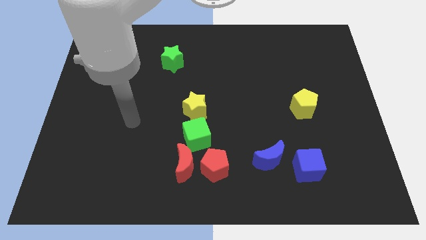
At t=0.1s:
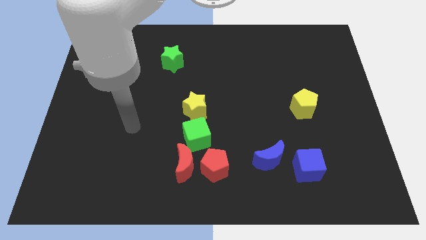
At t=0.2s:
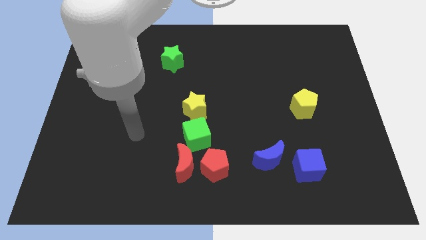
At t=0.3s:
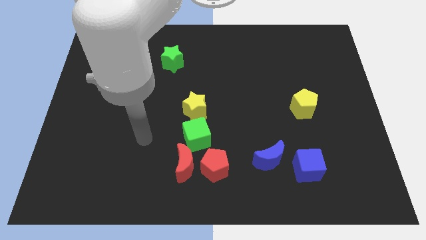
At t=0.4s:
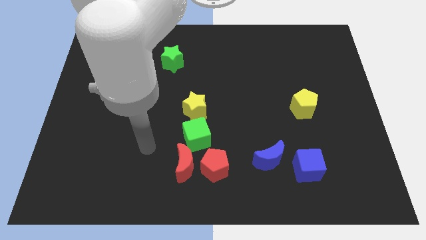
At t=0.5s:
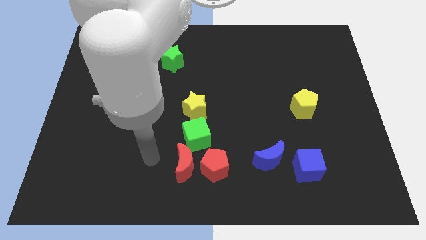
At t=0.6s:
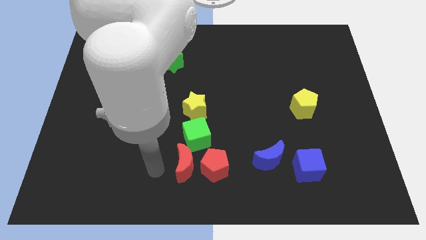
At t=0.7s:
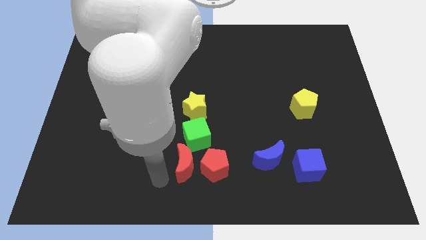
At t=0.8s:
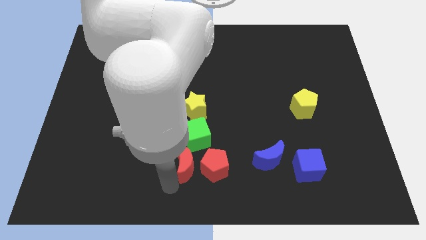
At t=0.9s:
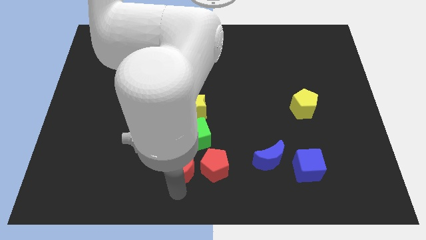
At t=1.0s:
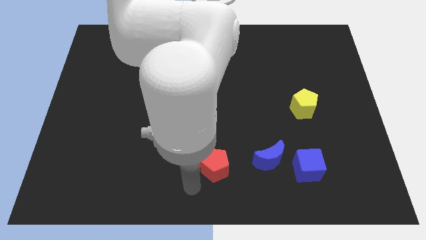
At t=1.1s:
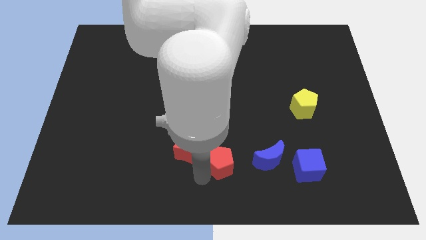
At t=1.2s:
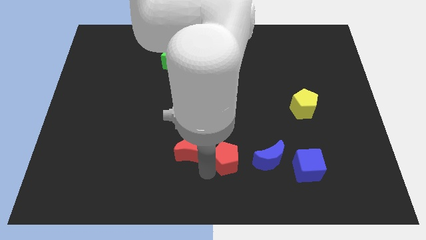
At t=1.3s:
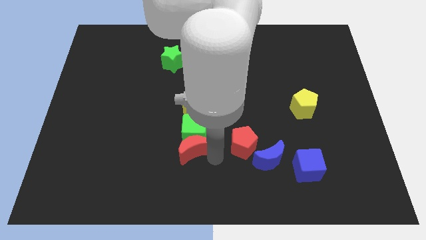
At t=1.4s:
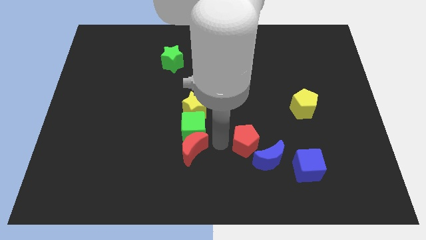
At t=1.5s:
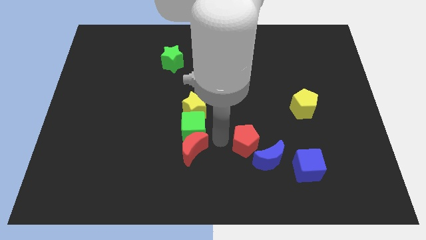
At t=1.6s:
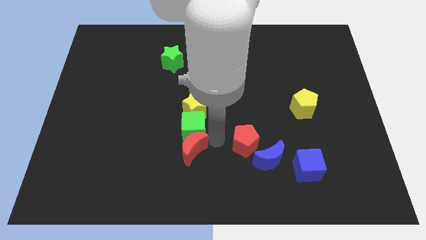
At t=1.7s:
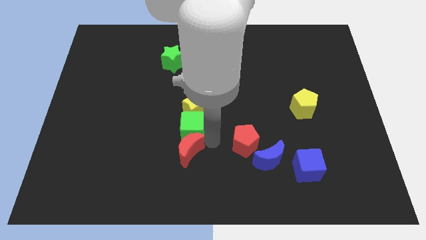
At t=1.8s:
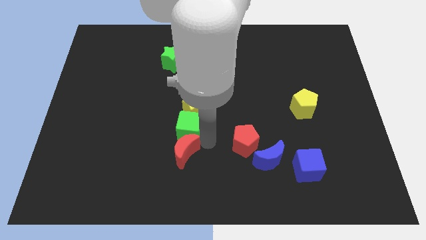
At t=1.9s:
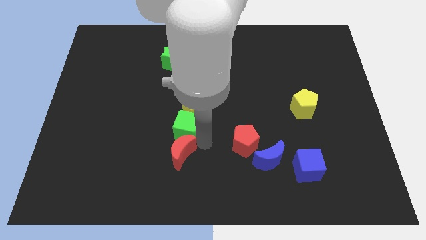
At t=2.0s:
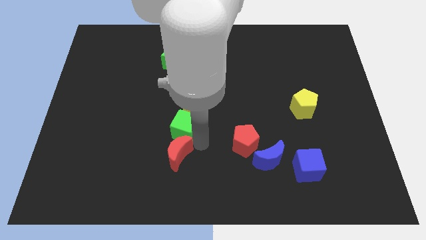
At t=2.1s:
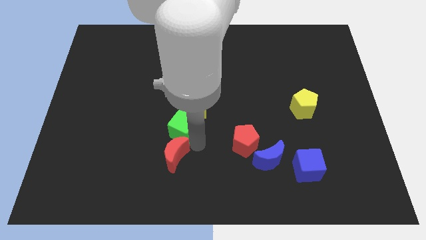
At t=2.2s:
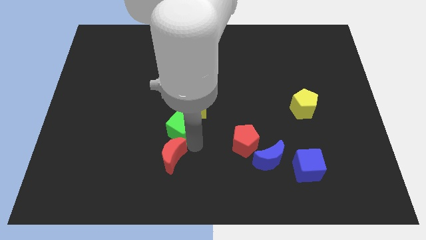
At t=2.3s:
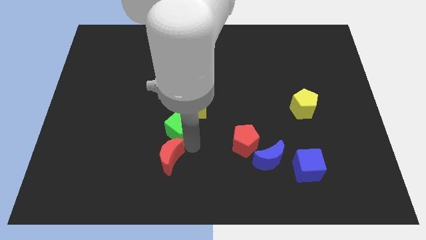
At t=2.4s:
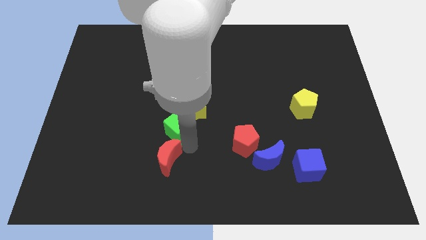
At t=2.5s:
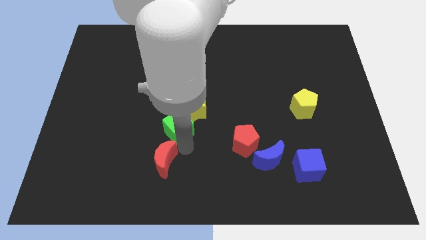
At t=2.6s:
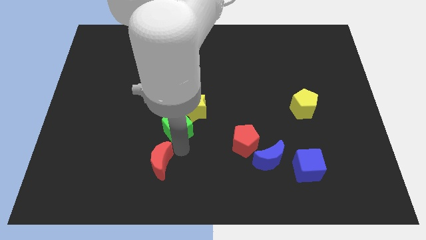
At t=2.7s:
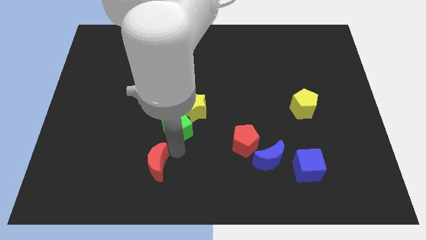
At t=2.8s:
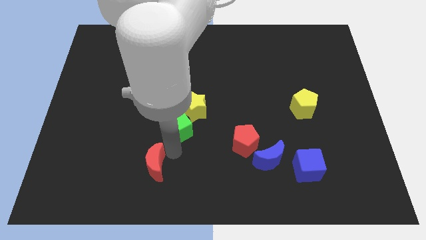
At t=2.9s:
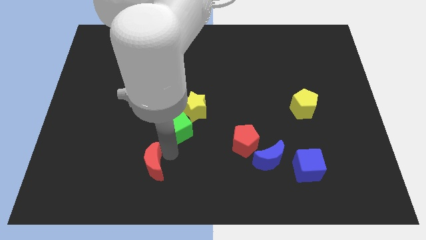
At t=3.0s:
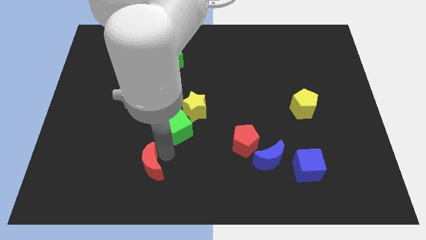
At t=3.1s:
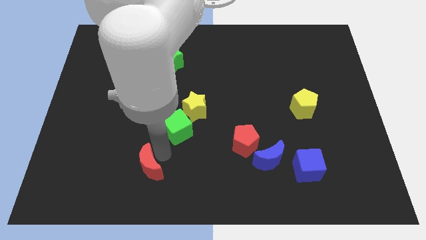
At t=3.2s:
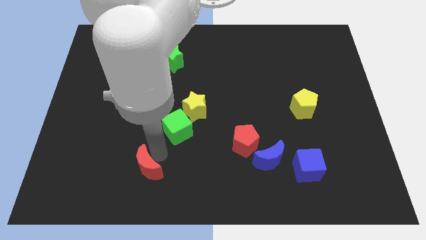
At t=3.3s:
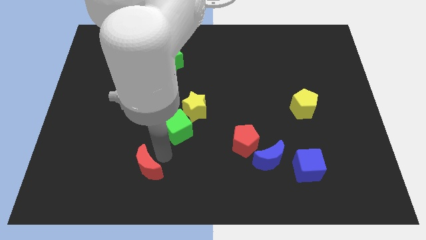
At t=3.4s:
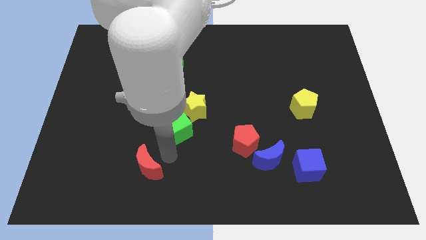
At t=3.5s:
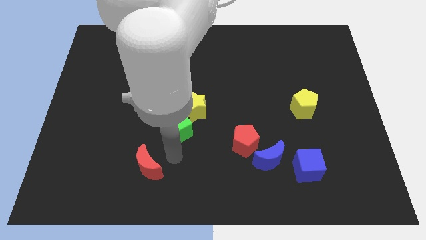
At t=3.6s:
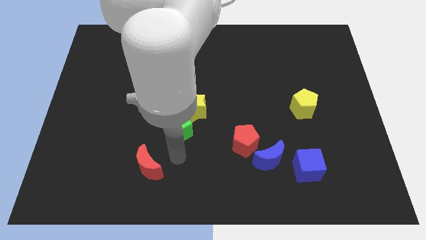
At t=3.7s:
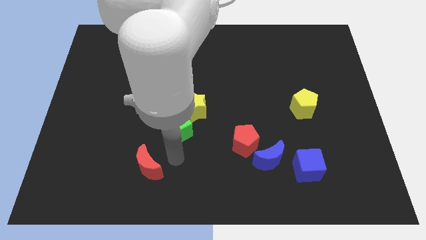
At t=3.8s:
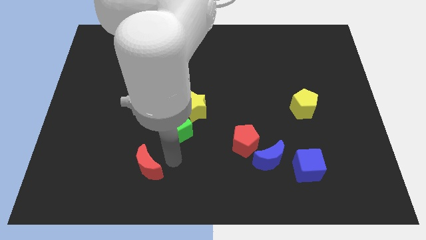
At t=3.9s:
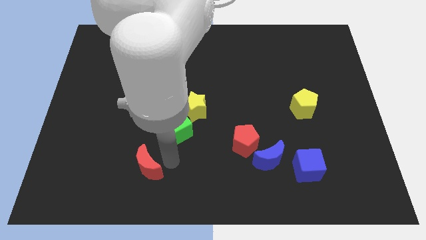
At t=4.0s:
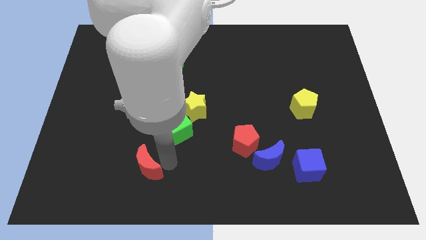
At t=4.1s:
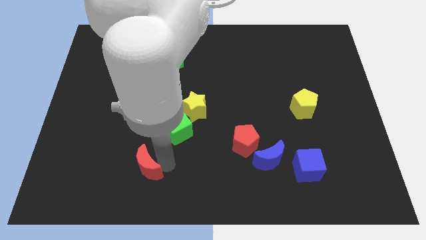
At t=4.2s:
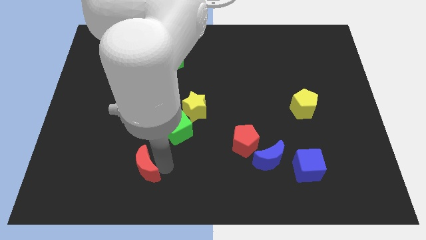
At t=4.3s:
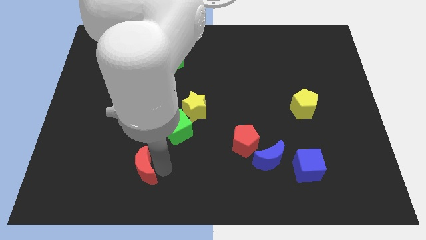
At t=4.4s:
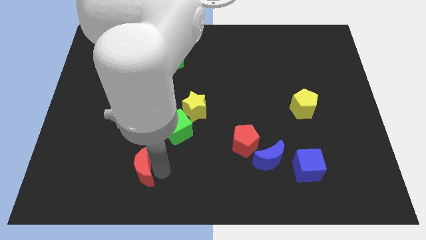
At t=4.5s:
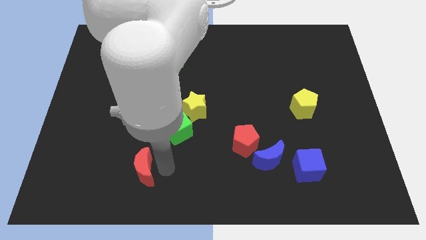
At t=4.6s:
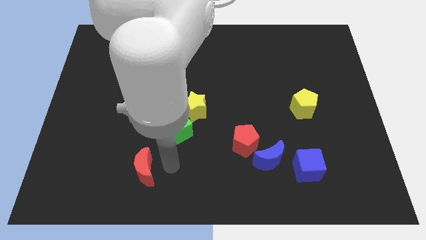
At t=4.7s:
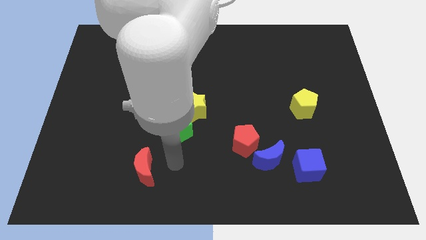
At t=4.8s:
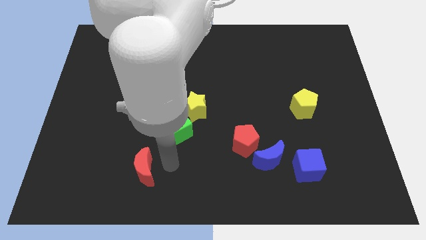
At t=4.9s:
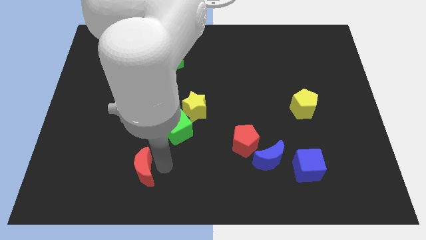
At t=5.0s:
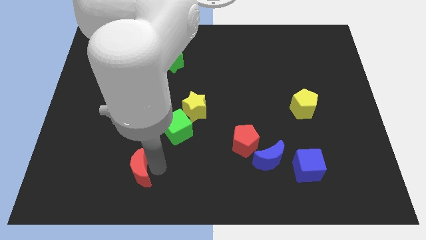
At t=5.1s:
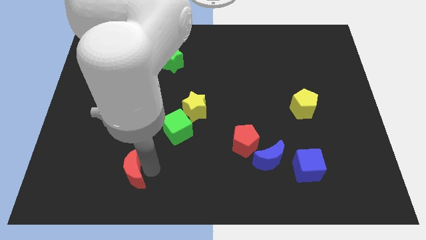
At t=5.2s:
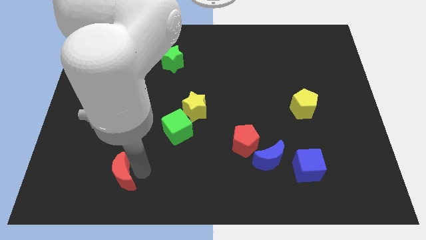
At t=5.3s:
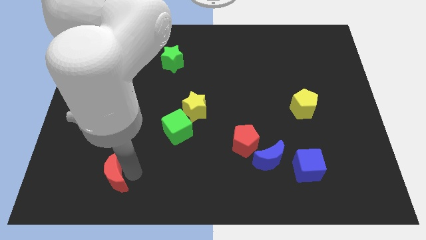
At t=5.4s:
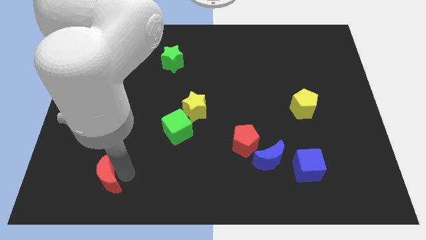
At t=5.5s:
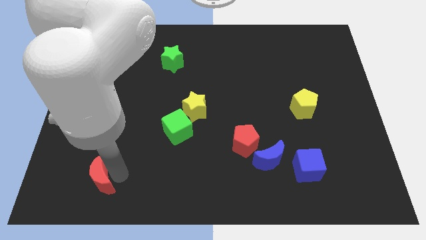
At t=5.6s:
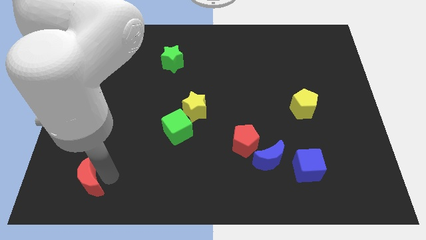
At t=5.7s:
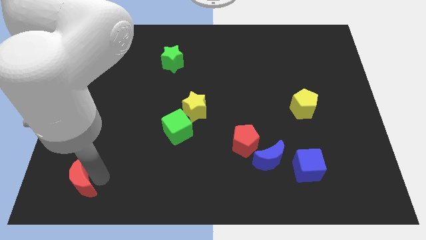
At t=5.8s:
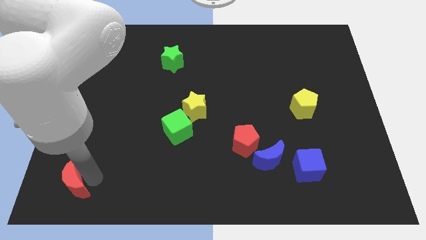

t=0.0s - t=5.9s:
push the red moon to the bottom left
